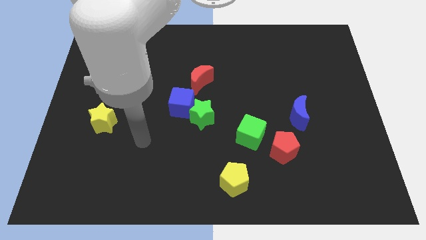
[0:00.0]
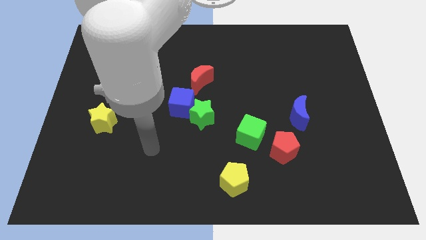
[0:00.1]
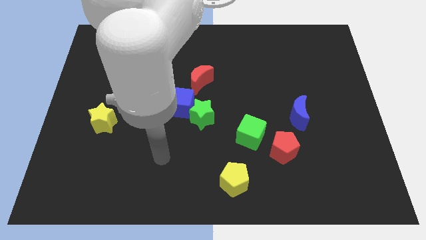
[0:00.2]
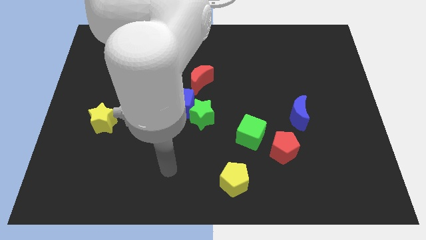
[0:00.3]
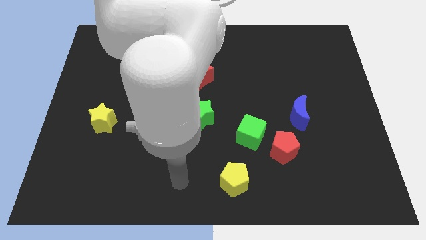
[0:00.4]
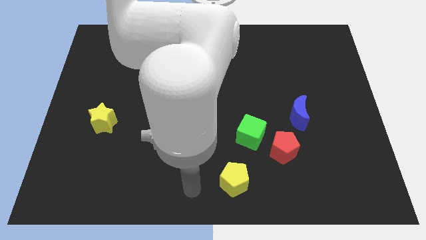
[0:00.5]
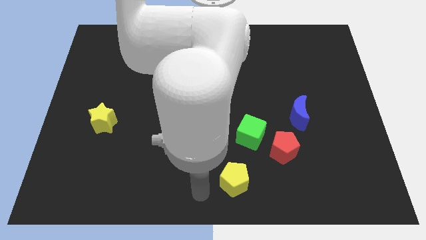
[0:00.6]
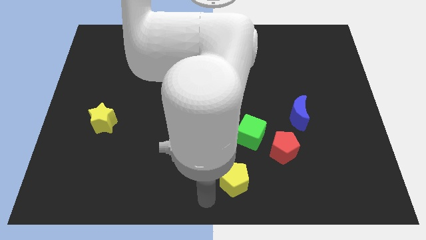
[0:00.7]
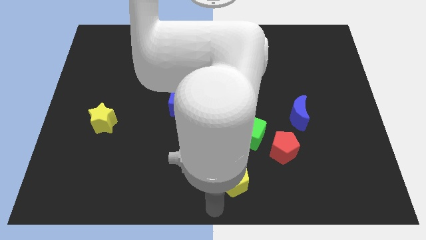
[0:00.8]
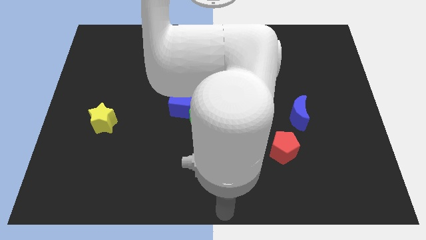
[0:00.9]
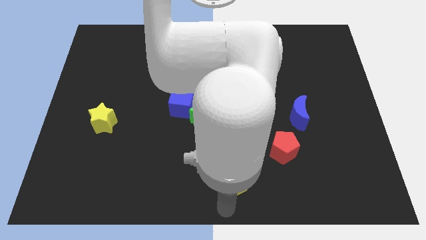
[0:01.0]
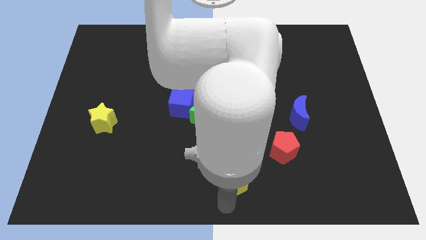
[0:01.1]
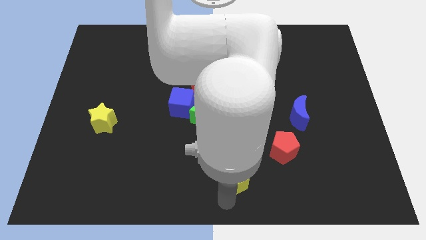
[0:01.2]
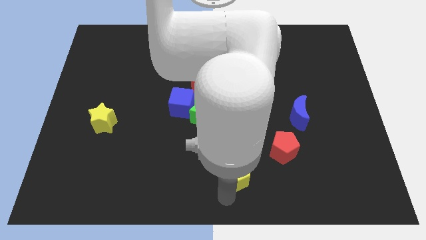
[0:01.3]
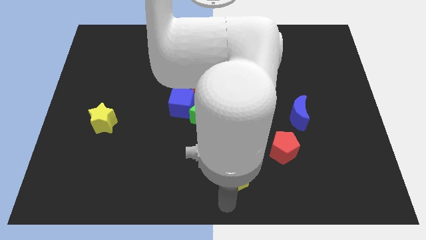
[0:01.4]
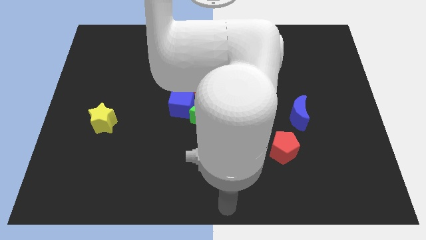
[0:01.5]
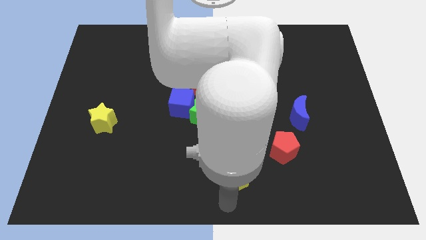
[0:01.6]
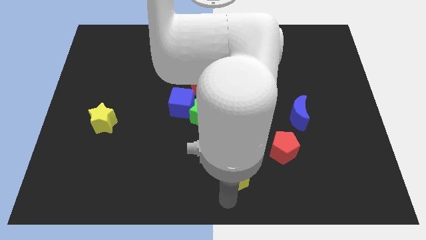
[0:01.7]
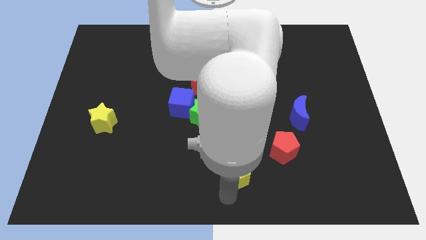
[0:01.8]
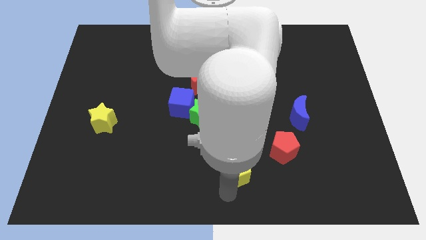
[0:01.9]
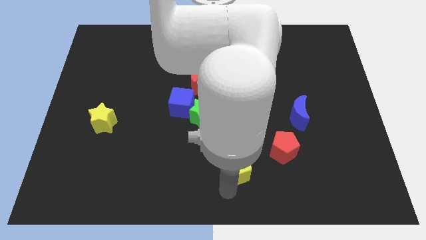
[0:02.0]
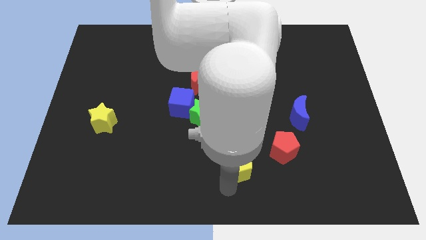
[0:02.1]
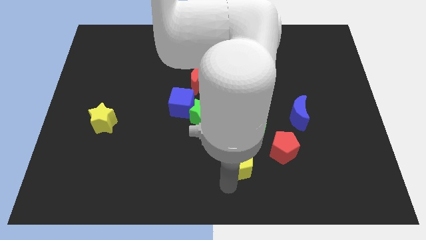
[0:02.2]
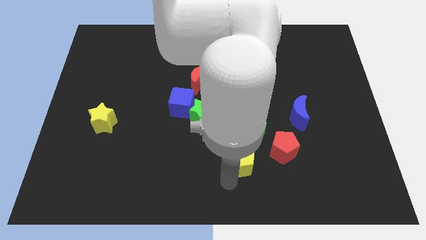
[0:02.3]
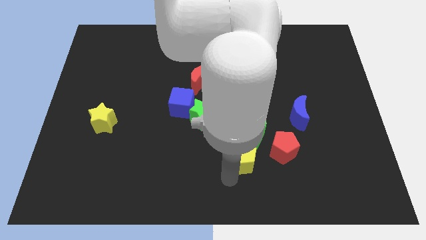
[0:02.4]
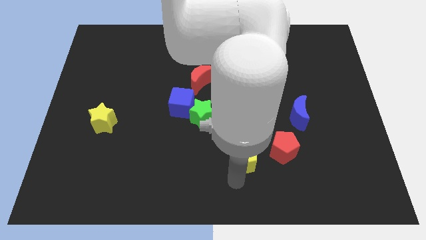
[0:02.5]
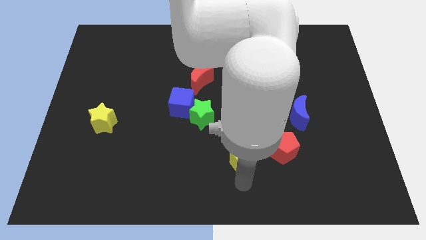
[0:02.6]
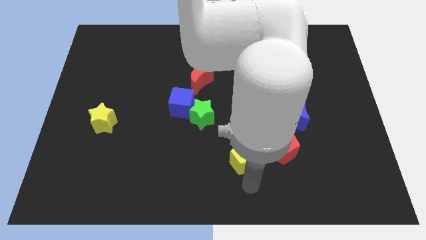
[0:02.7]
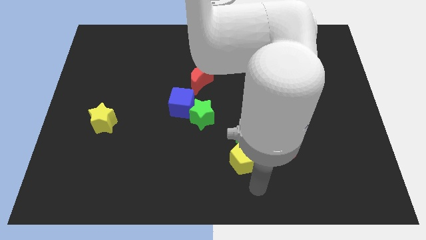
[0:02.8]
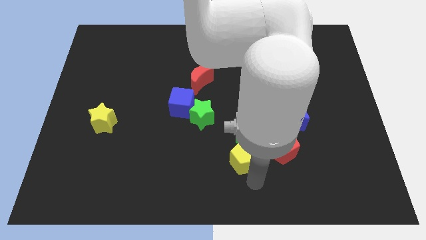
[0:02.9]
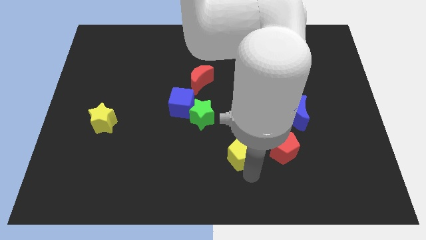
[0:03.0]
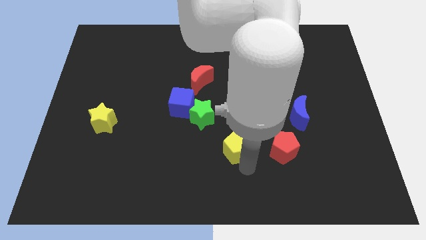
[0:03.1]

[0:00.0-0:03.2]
push the yellow pentagon up a little

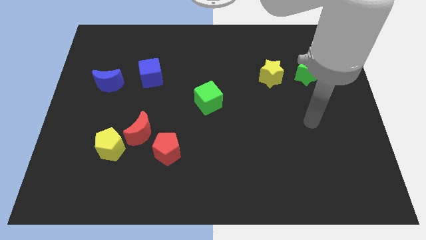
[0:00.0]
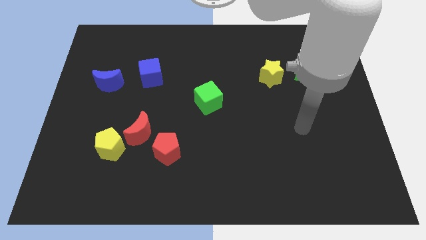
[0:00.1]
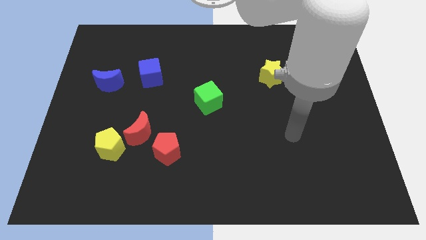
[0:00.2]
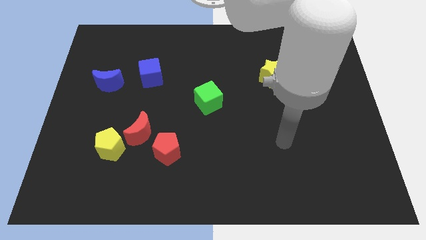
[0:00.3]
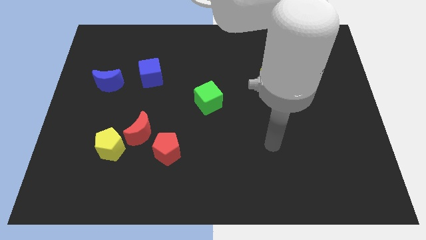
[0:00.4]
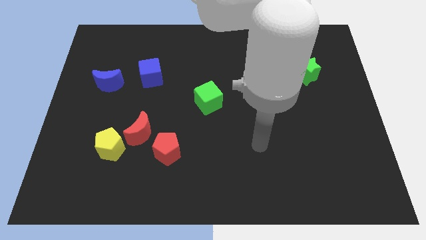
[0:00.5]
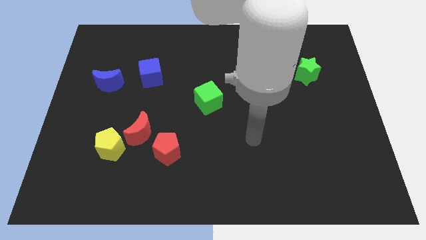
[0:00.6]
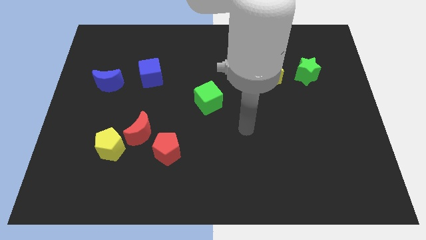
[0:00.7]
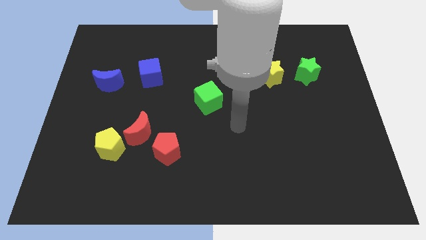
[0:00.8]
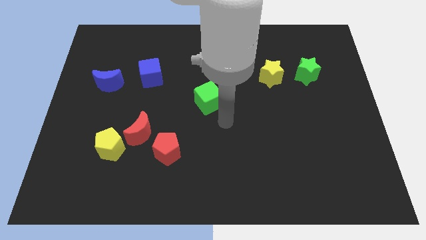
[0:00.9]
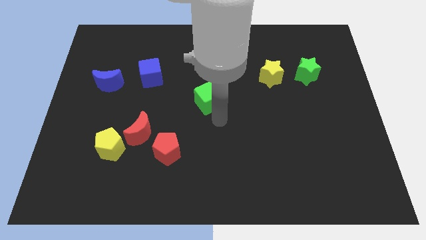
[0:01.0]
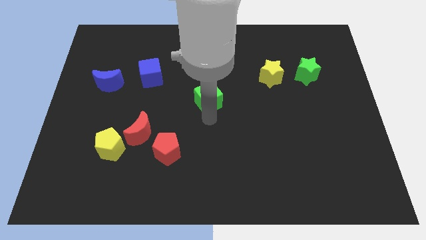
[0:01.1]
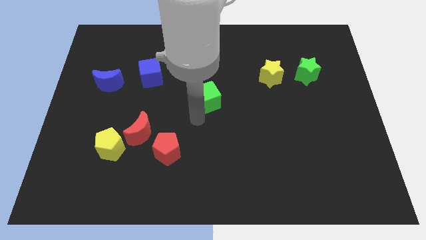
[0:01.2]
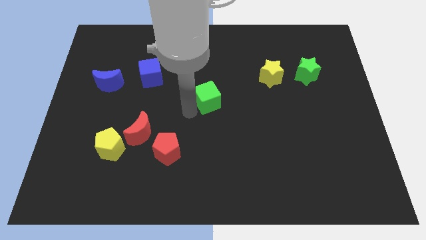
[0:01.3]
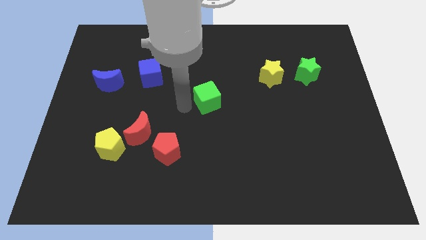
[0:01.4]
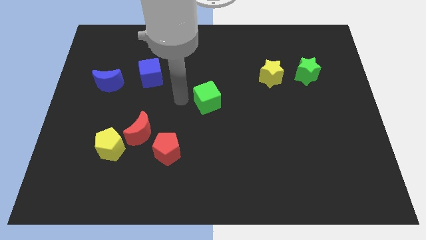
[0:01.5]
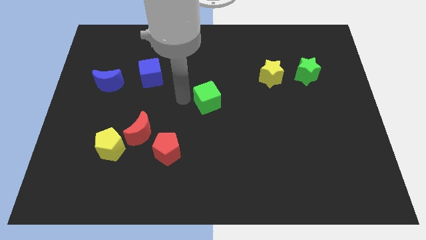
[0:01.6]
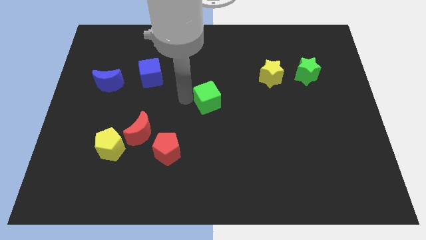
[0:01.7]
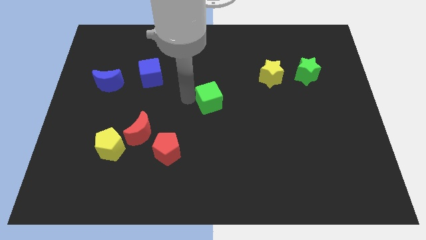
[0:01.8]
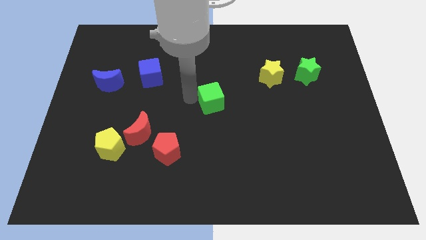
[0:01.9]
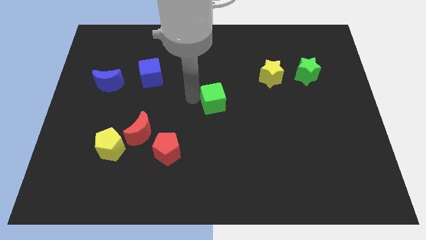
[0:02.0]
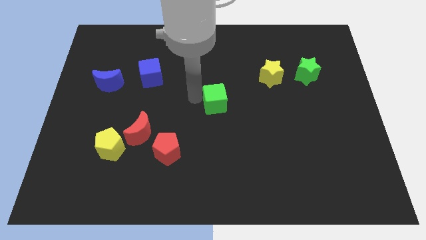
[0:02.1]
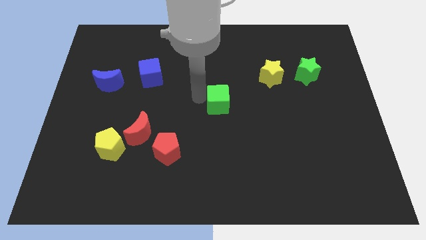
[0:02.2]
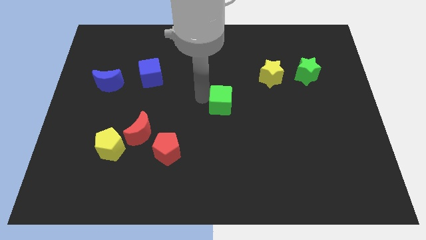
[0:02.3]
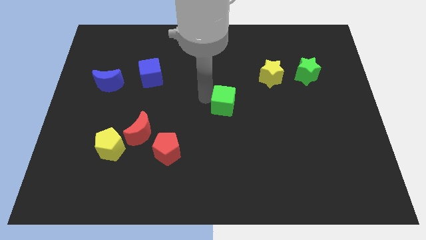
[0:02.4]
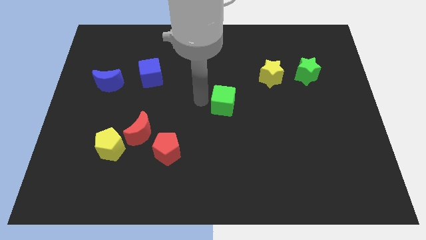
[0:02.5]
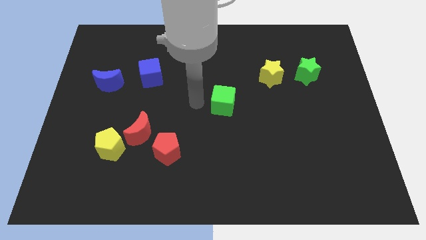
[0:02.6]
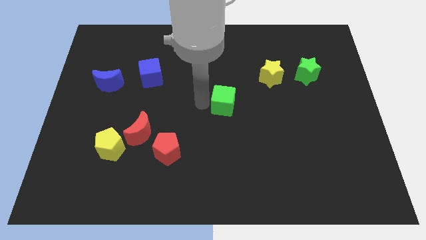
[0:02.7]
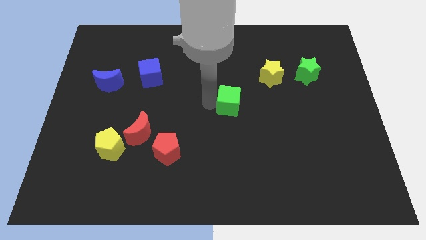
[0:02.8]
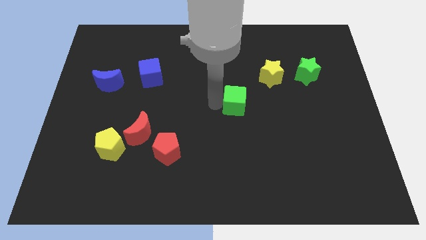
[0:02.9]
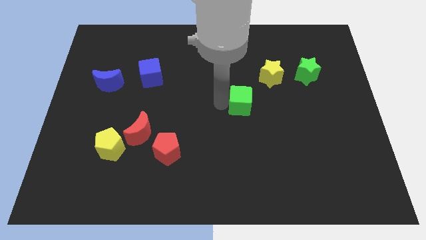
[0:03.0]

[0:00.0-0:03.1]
slide the green cube to the right a little bit

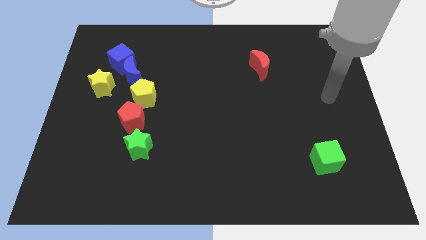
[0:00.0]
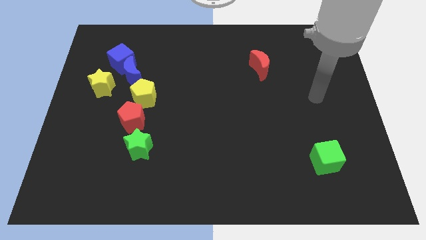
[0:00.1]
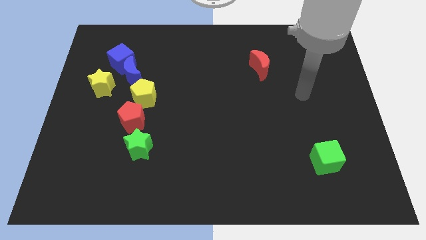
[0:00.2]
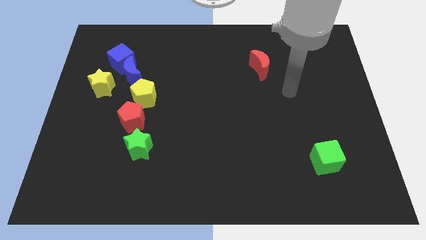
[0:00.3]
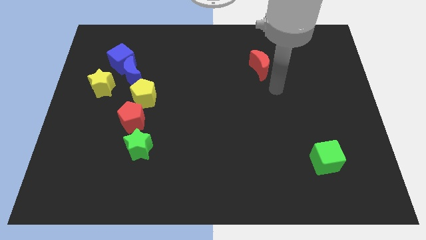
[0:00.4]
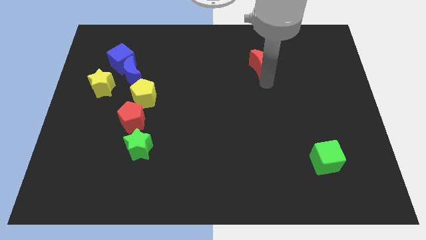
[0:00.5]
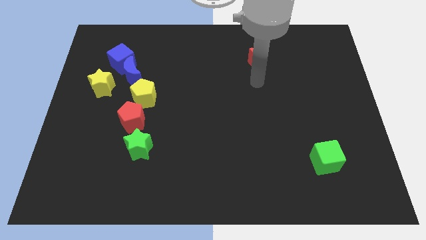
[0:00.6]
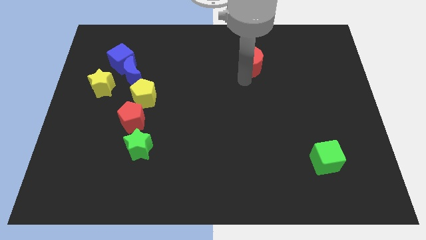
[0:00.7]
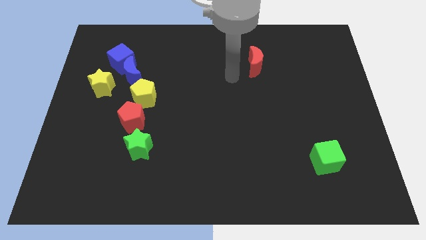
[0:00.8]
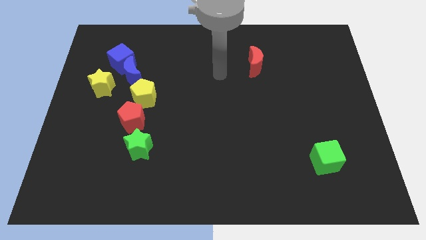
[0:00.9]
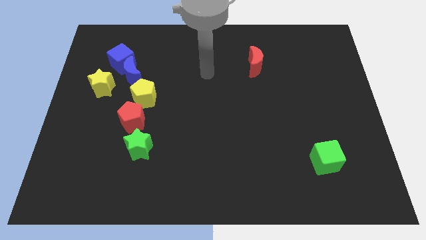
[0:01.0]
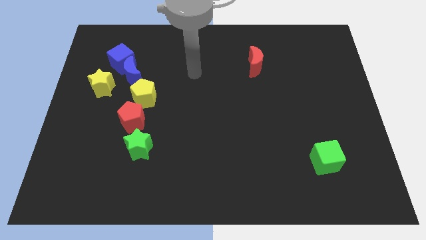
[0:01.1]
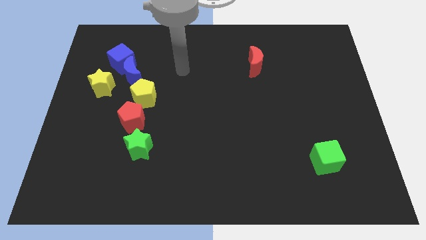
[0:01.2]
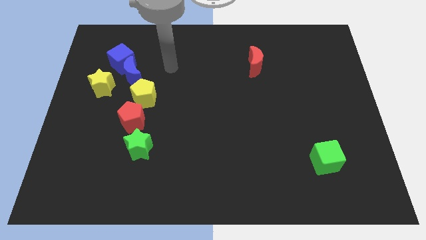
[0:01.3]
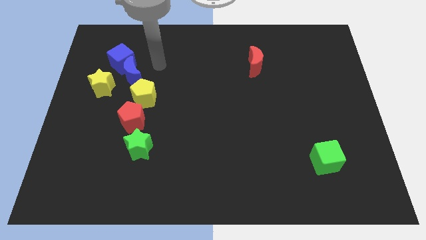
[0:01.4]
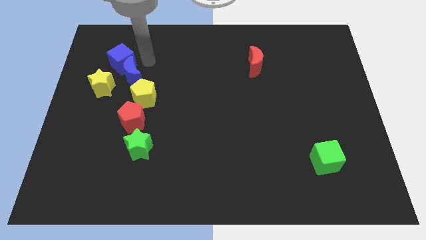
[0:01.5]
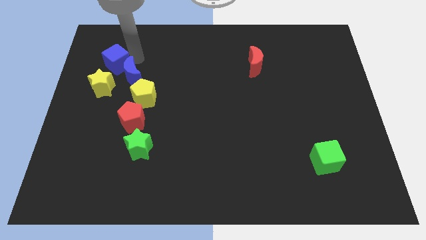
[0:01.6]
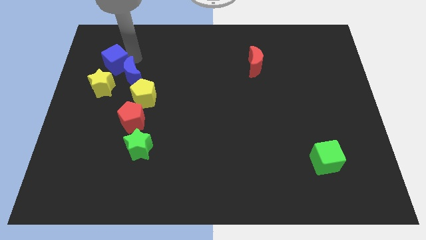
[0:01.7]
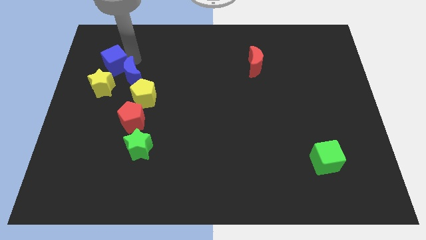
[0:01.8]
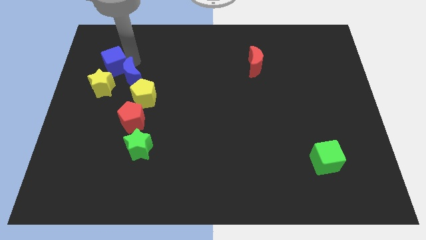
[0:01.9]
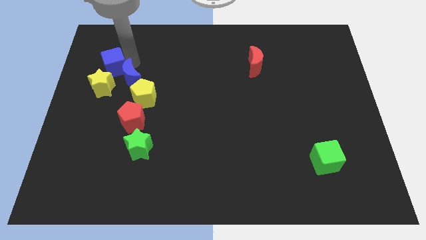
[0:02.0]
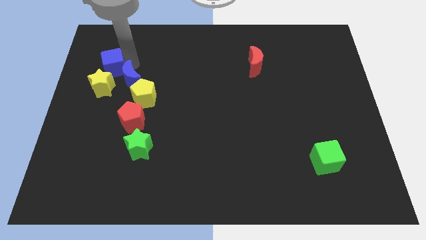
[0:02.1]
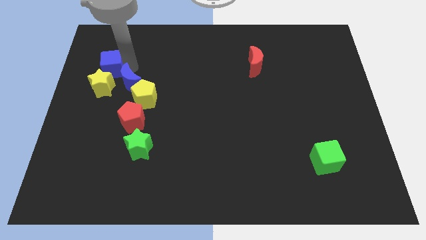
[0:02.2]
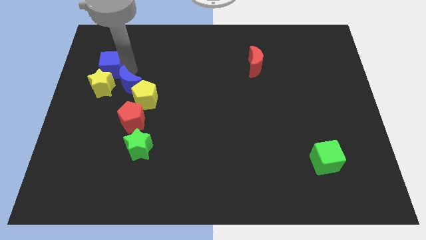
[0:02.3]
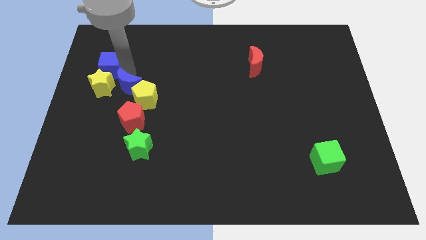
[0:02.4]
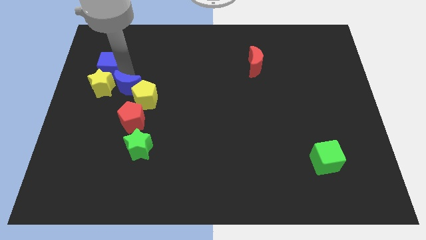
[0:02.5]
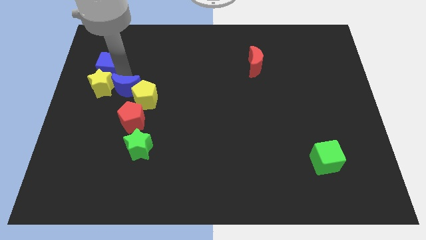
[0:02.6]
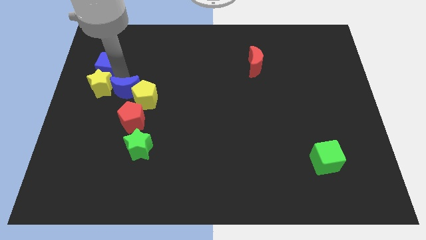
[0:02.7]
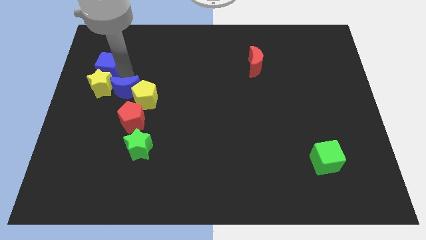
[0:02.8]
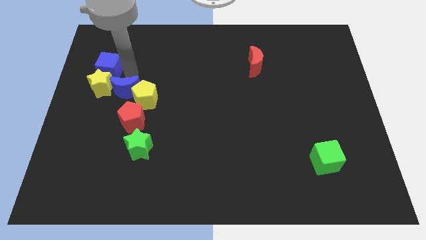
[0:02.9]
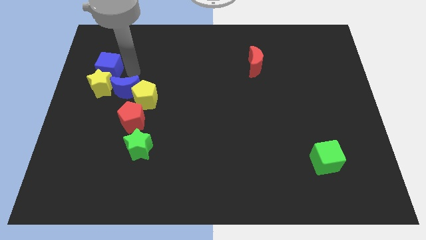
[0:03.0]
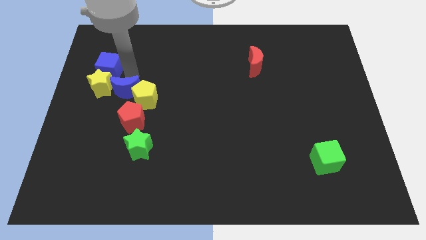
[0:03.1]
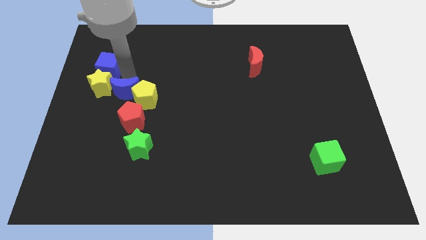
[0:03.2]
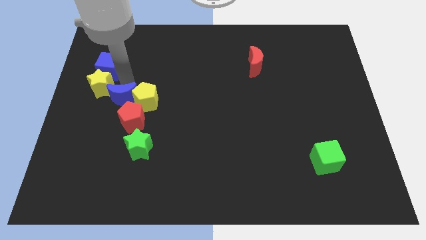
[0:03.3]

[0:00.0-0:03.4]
push the blue moon downwards a little bit
